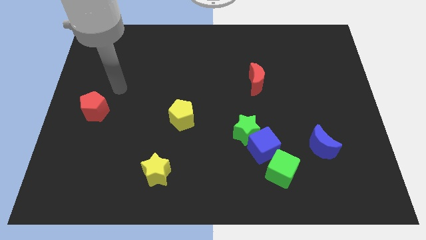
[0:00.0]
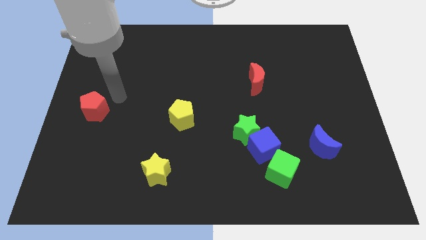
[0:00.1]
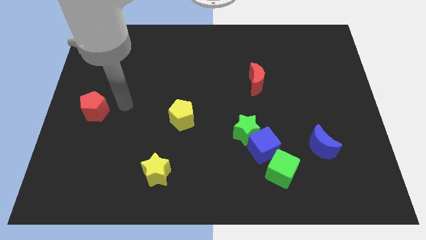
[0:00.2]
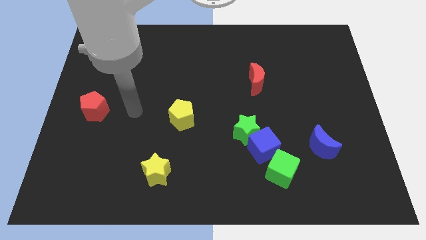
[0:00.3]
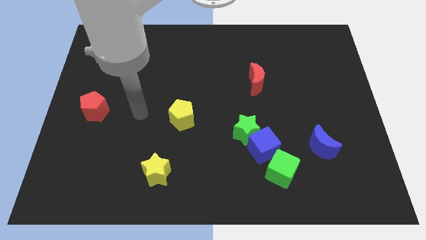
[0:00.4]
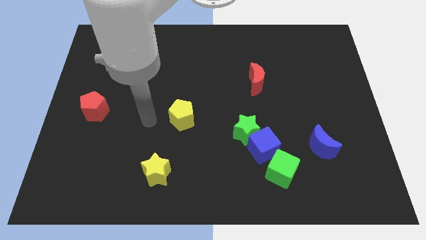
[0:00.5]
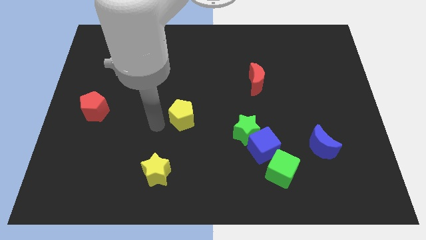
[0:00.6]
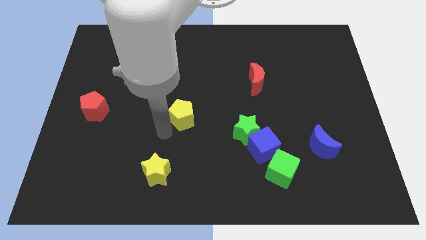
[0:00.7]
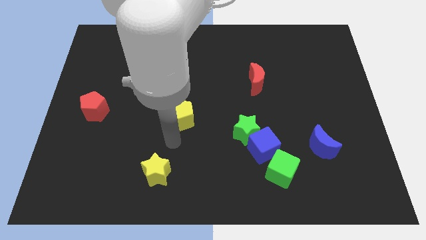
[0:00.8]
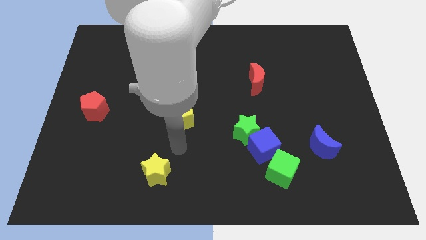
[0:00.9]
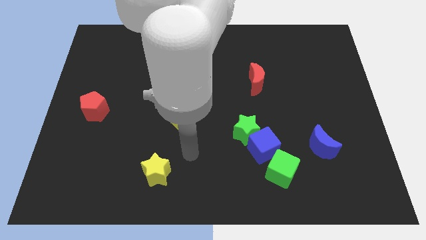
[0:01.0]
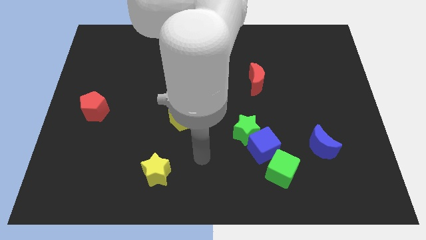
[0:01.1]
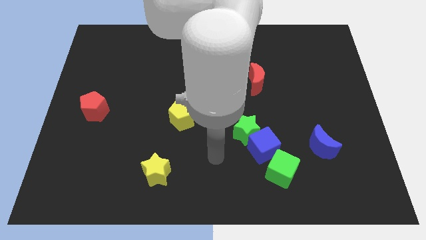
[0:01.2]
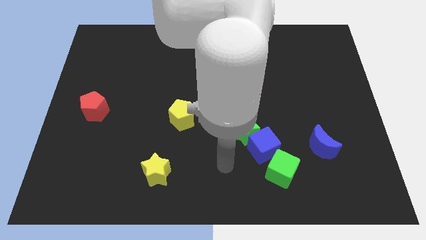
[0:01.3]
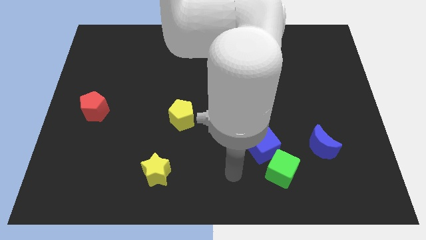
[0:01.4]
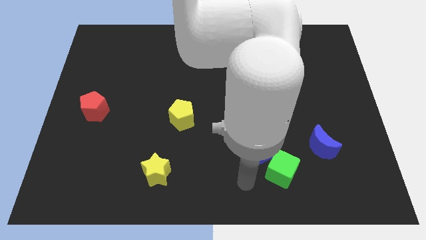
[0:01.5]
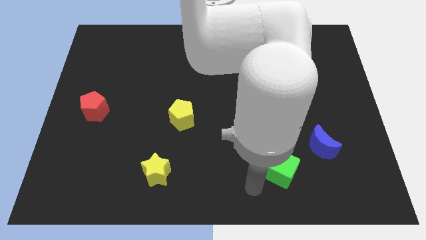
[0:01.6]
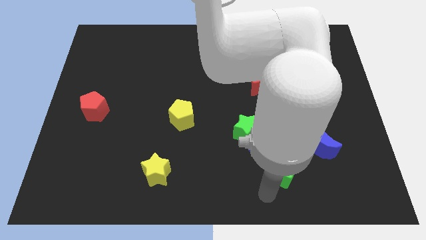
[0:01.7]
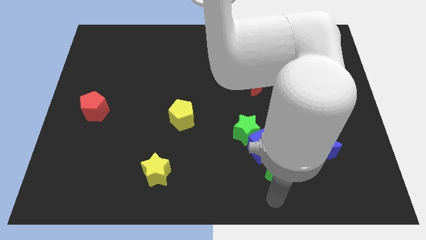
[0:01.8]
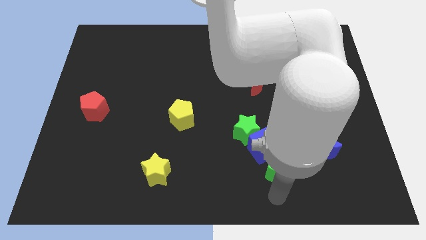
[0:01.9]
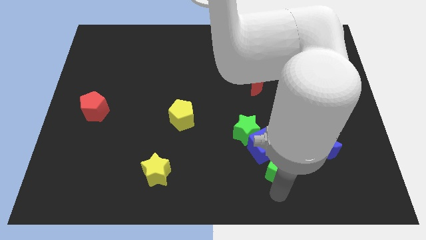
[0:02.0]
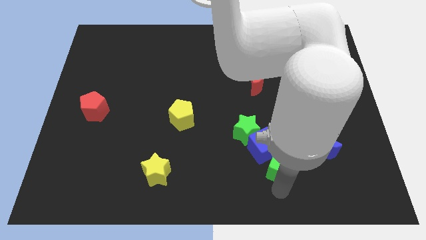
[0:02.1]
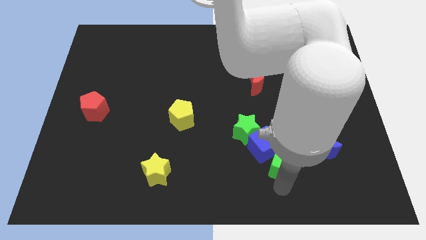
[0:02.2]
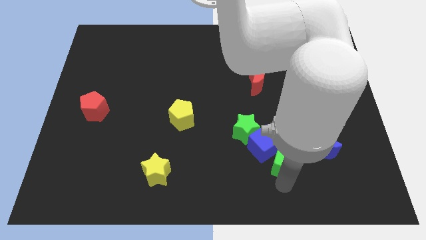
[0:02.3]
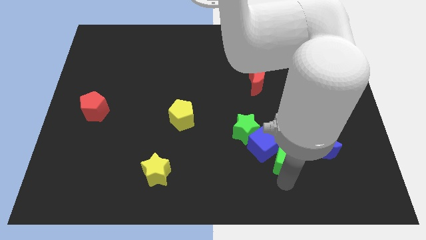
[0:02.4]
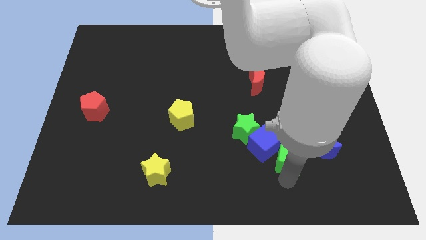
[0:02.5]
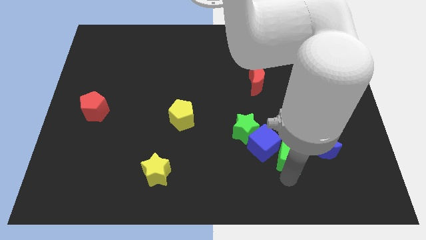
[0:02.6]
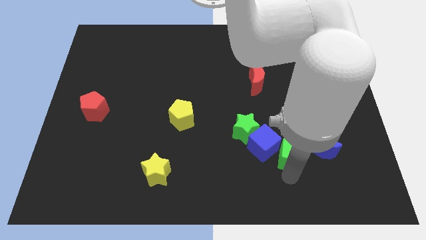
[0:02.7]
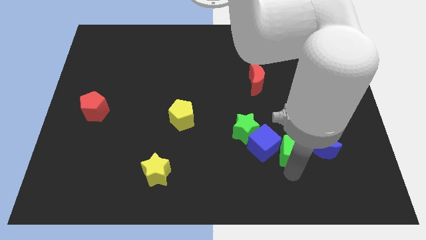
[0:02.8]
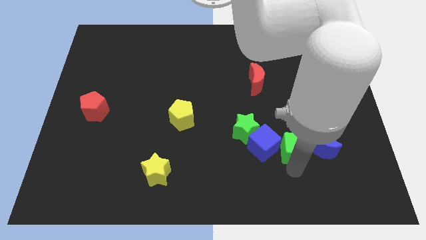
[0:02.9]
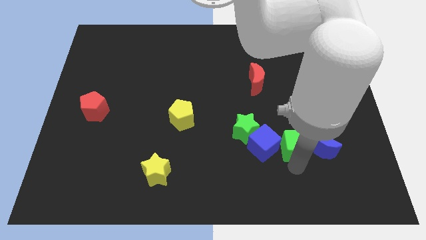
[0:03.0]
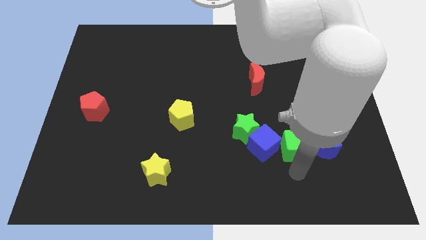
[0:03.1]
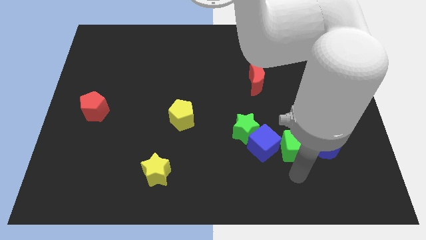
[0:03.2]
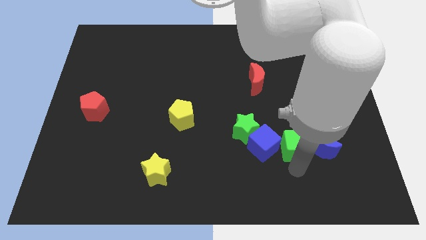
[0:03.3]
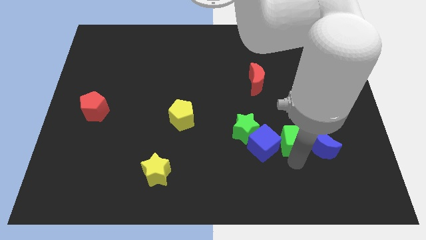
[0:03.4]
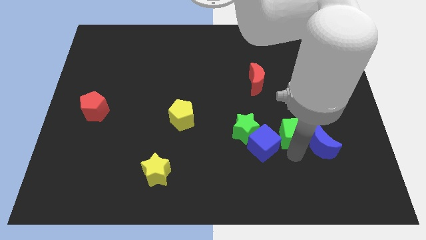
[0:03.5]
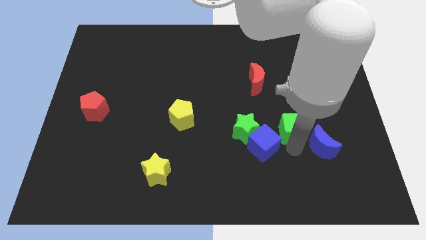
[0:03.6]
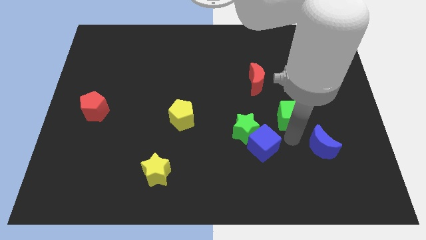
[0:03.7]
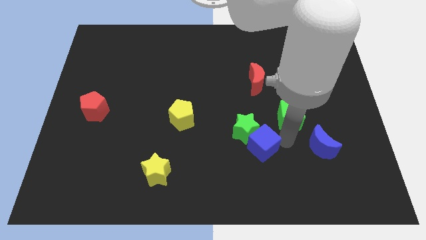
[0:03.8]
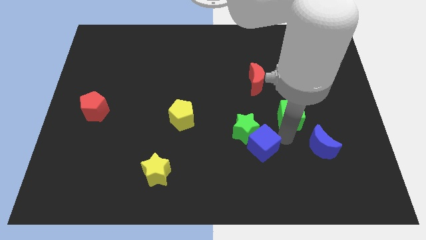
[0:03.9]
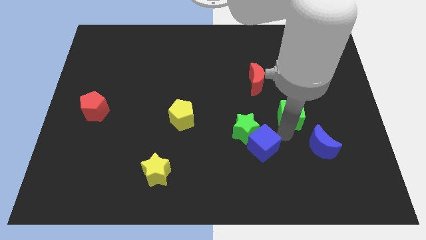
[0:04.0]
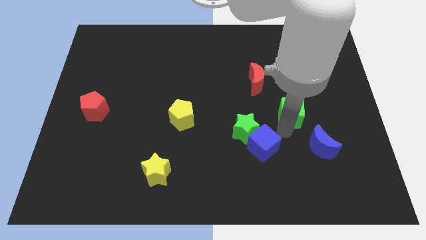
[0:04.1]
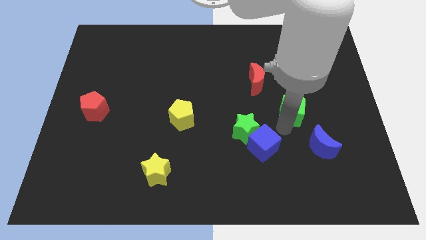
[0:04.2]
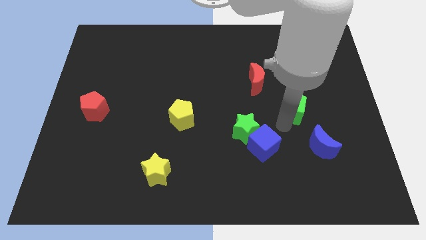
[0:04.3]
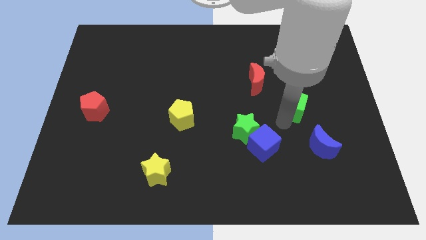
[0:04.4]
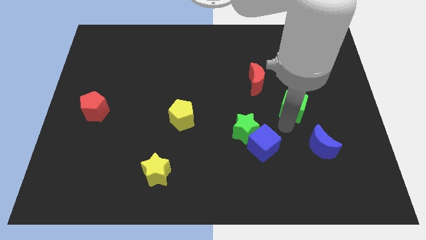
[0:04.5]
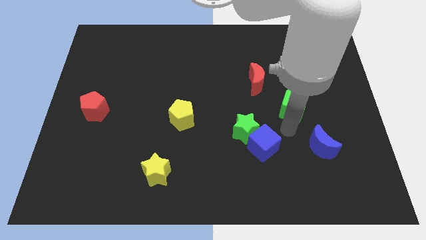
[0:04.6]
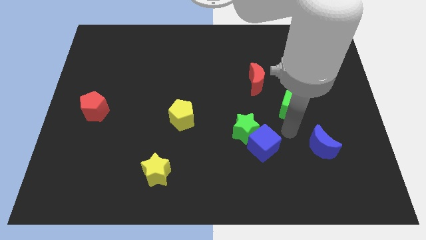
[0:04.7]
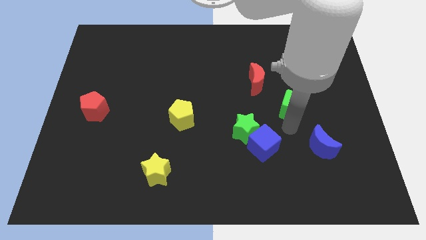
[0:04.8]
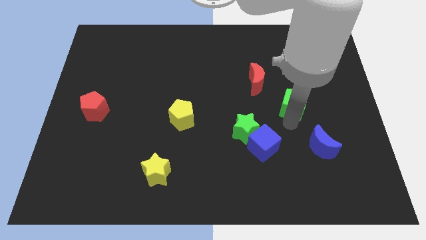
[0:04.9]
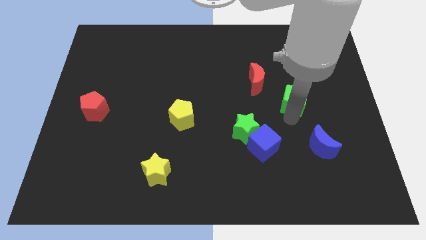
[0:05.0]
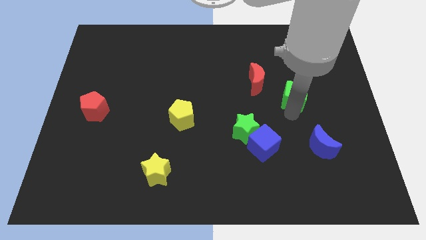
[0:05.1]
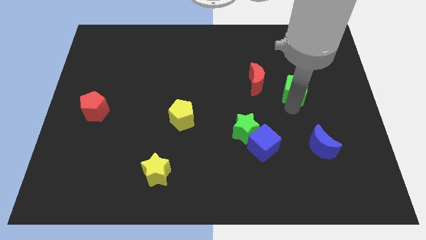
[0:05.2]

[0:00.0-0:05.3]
slide the green cube just right of the red moon

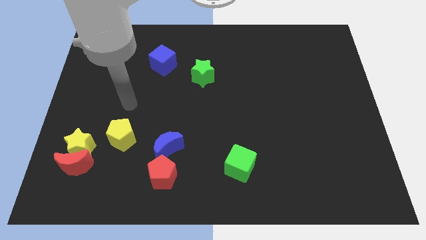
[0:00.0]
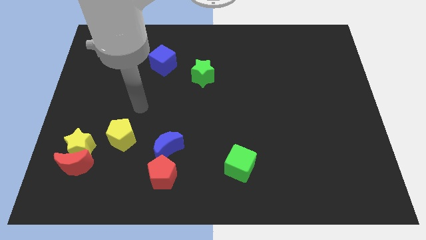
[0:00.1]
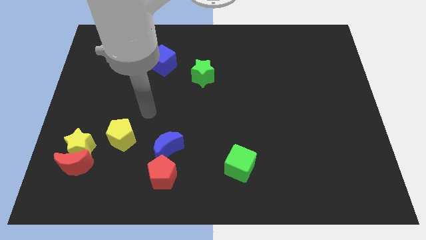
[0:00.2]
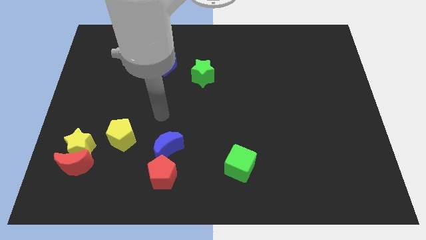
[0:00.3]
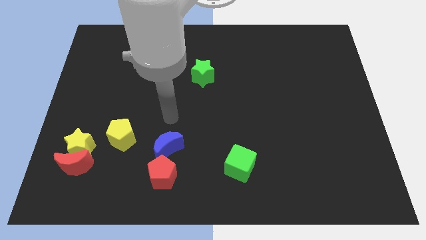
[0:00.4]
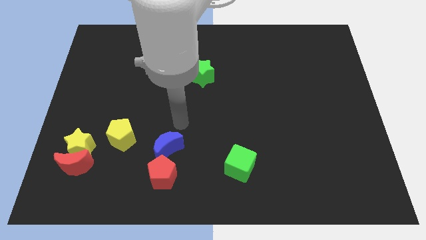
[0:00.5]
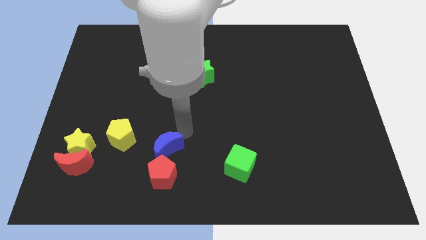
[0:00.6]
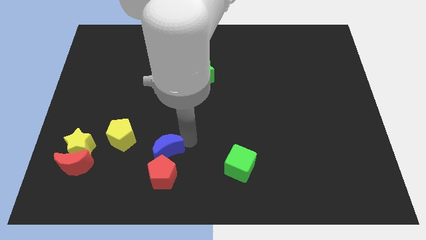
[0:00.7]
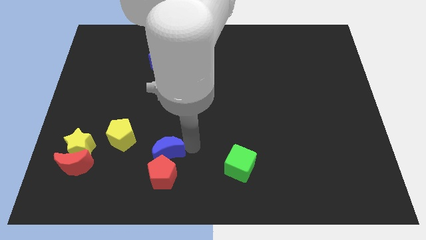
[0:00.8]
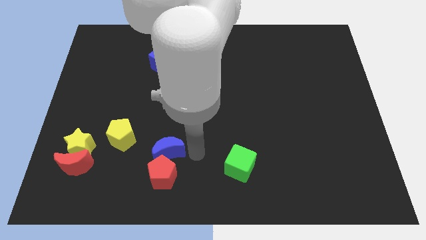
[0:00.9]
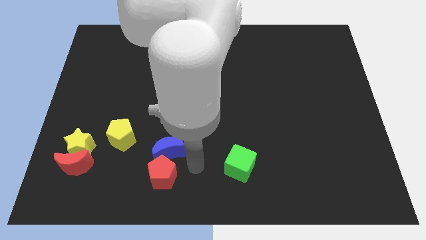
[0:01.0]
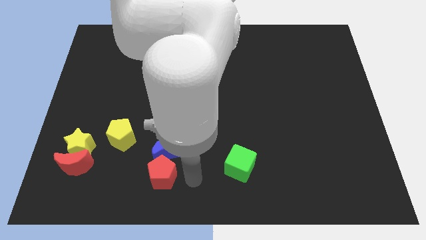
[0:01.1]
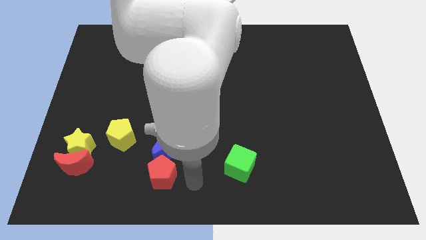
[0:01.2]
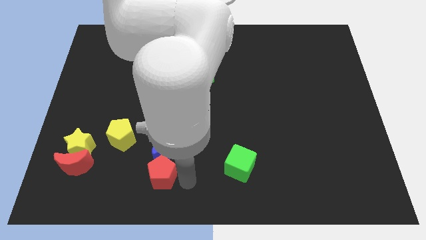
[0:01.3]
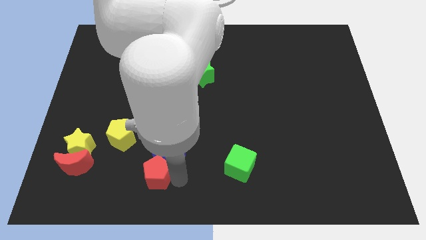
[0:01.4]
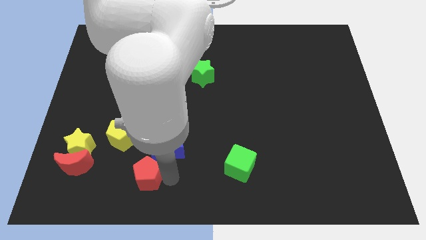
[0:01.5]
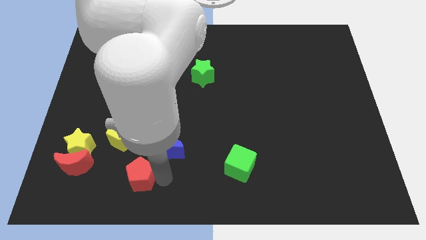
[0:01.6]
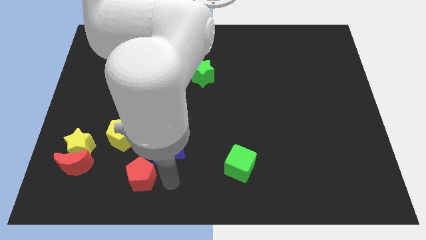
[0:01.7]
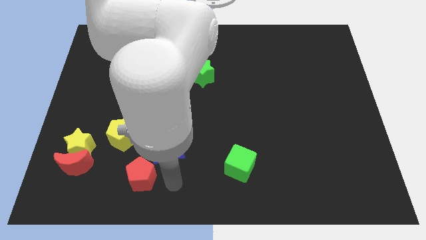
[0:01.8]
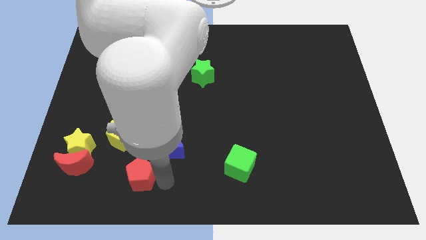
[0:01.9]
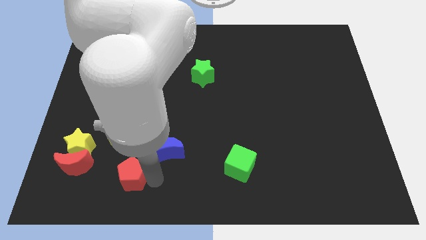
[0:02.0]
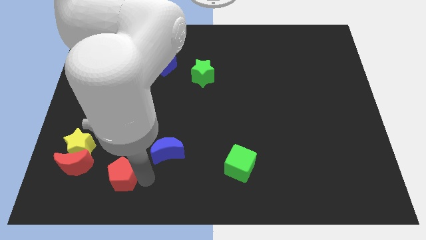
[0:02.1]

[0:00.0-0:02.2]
put the red pentagon to the bottom right side of the yellow star
